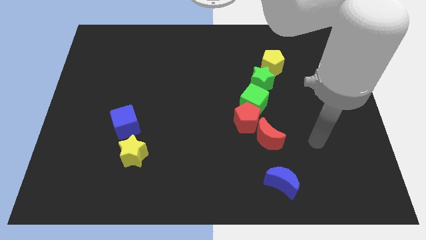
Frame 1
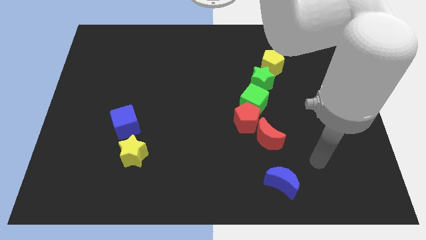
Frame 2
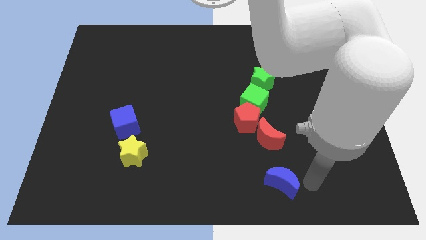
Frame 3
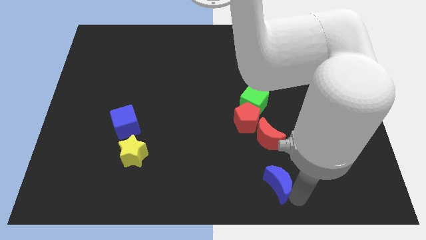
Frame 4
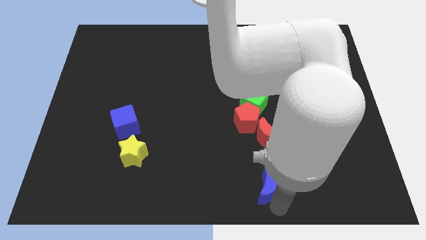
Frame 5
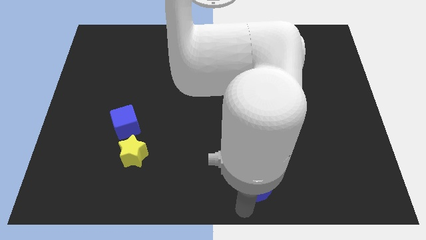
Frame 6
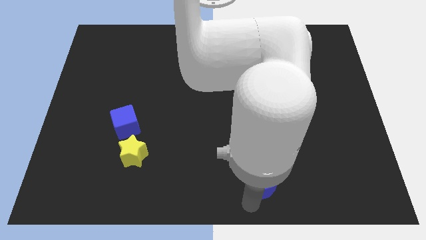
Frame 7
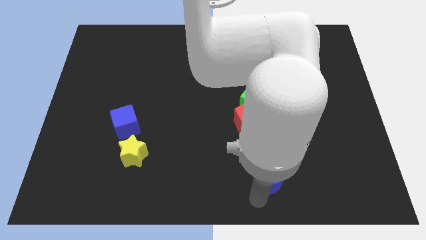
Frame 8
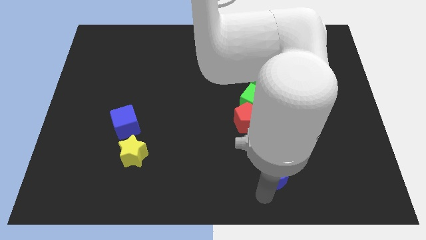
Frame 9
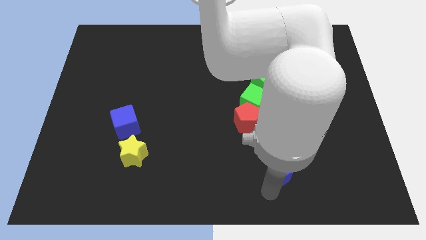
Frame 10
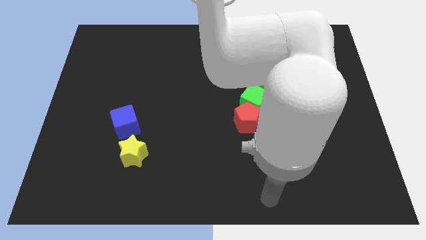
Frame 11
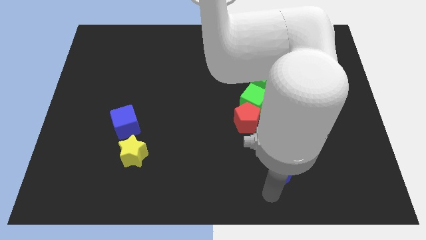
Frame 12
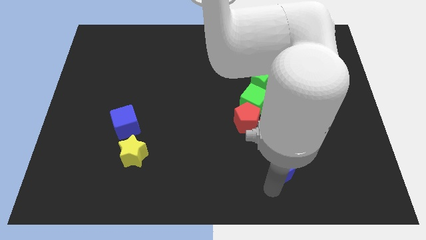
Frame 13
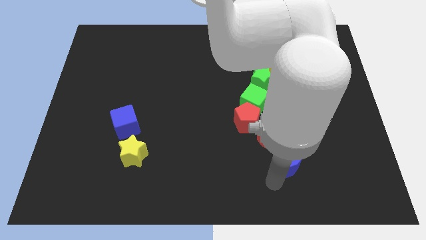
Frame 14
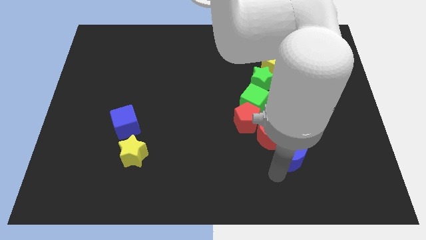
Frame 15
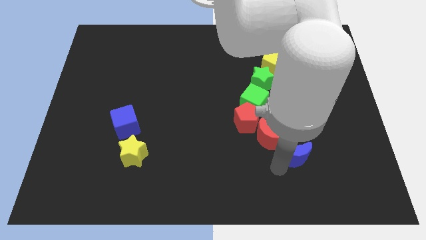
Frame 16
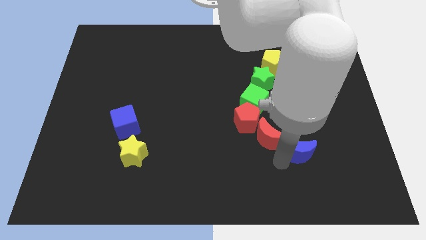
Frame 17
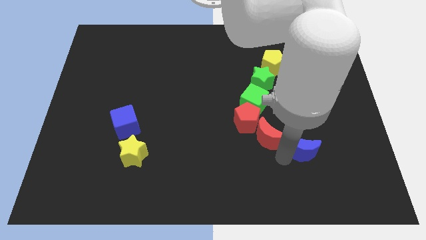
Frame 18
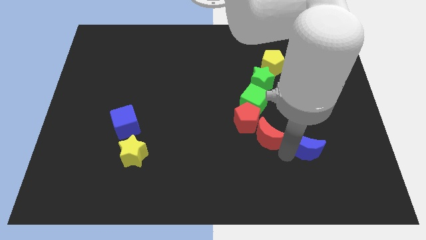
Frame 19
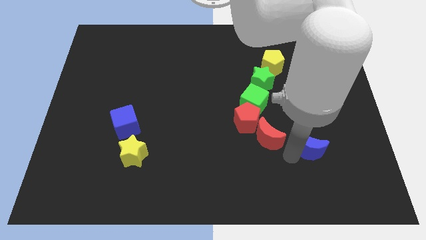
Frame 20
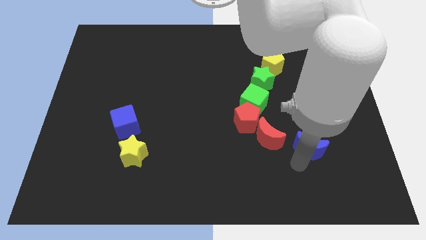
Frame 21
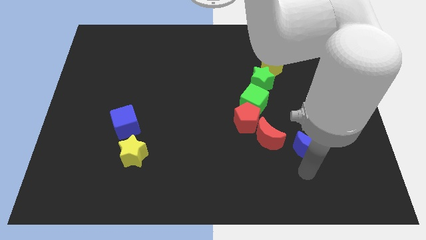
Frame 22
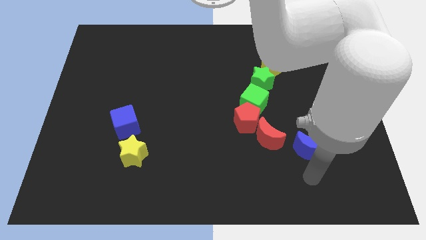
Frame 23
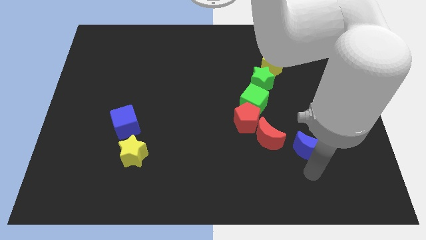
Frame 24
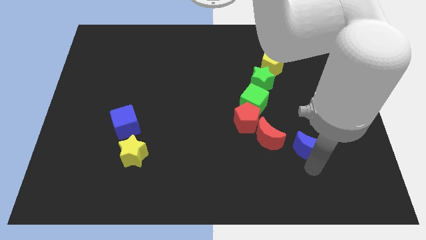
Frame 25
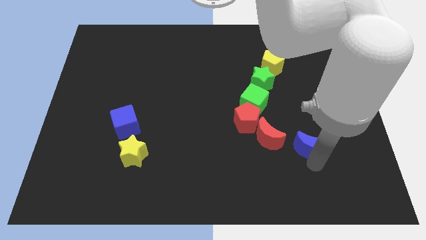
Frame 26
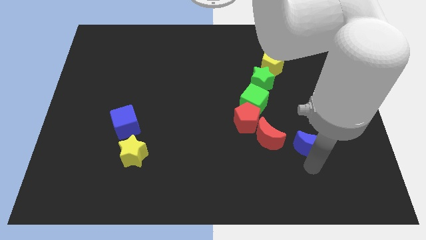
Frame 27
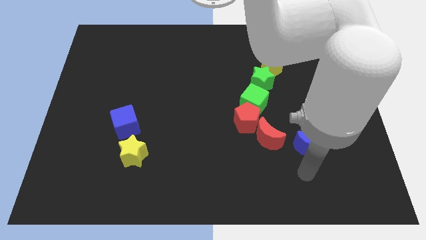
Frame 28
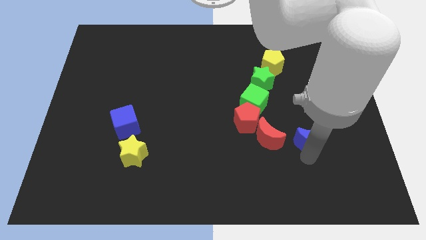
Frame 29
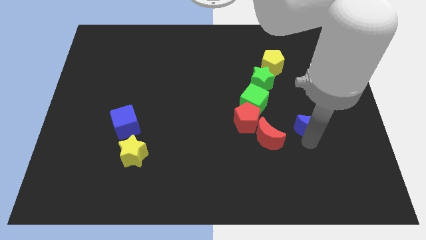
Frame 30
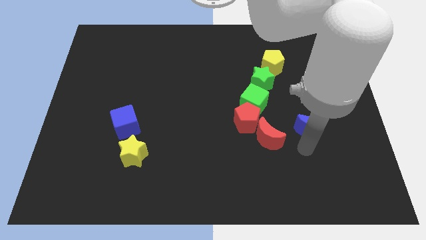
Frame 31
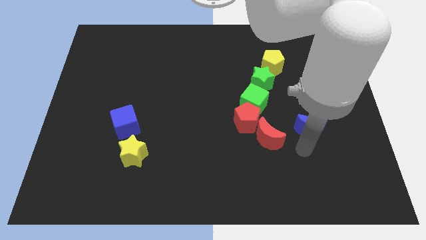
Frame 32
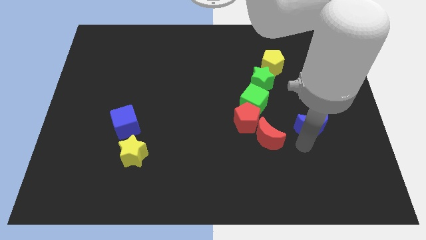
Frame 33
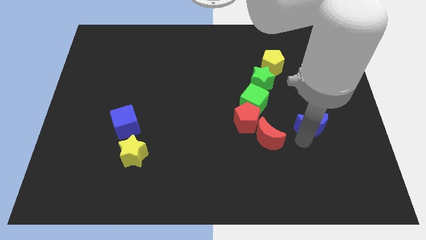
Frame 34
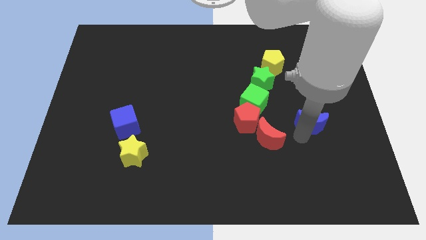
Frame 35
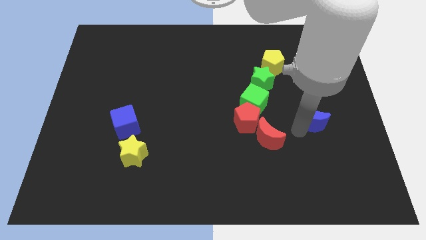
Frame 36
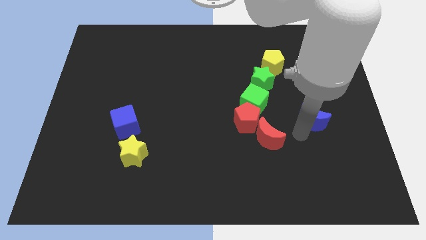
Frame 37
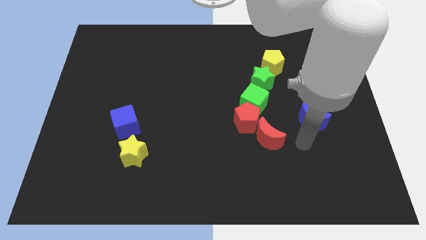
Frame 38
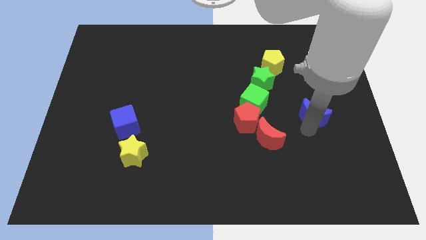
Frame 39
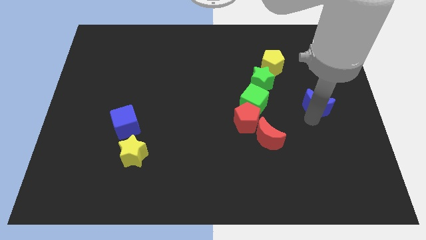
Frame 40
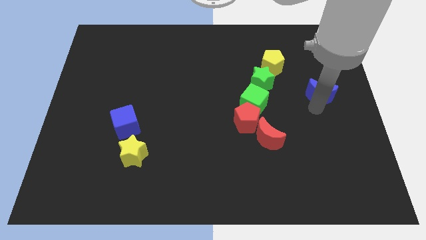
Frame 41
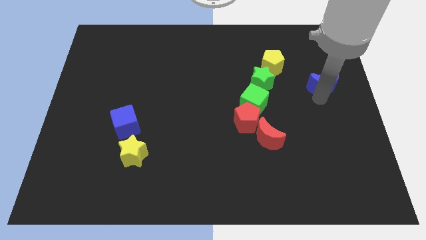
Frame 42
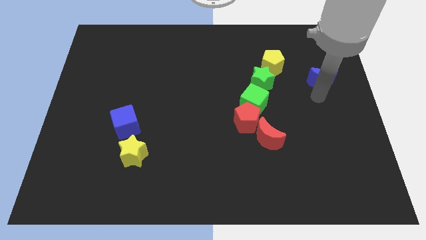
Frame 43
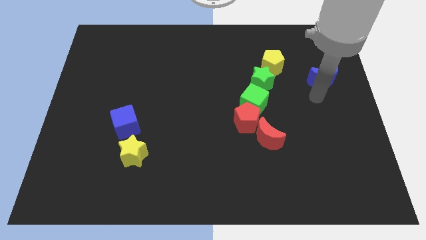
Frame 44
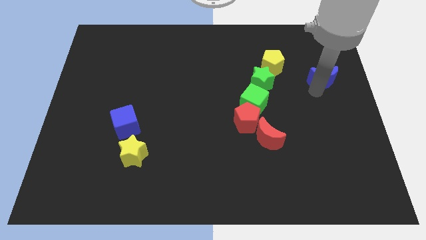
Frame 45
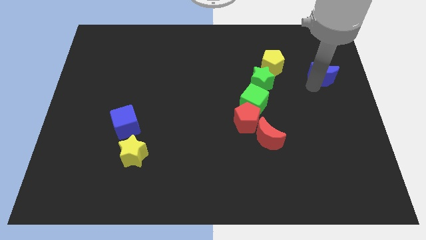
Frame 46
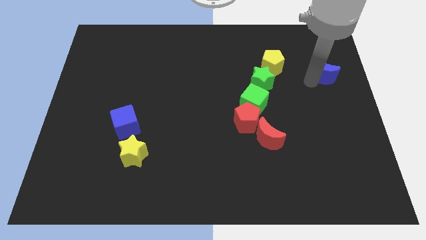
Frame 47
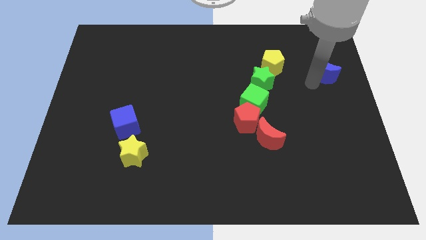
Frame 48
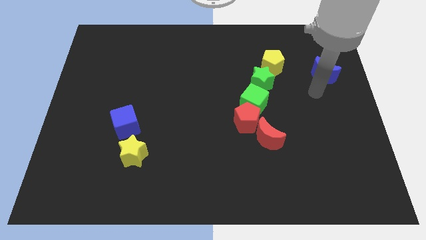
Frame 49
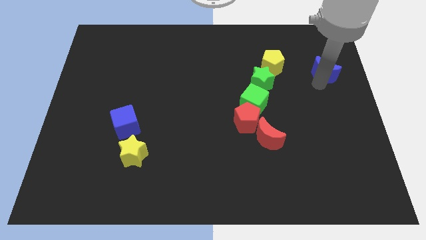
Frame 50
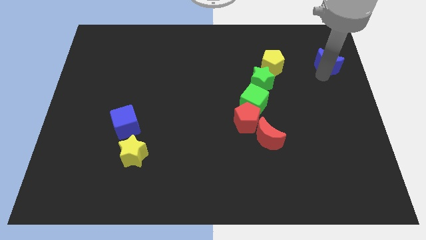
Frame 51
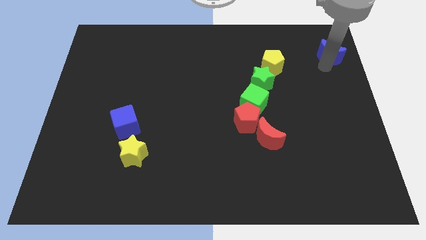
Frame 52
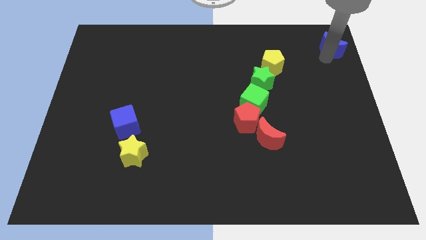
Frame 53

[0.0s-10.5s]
put the blue moon to the top right

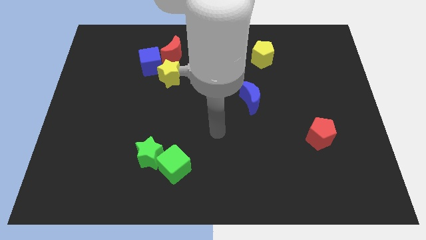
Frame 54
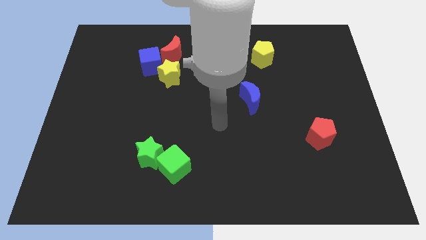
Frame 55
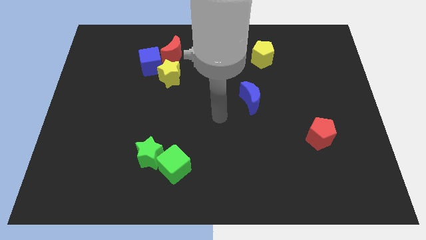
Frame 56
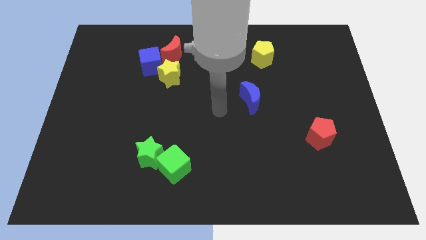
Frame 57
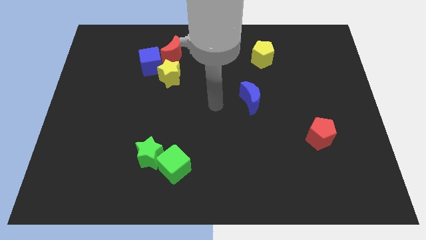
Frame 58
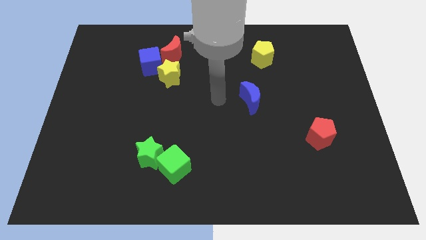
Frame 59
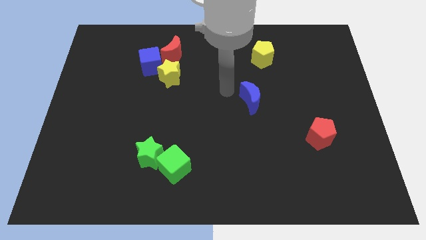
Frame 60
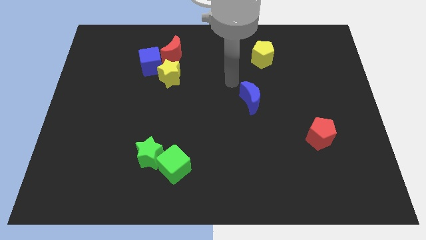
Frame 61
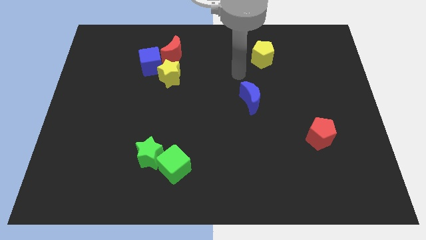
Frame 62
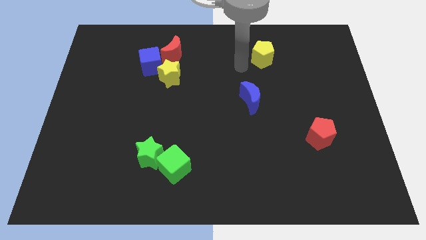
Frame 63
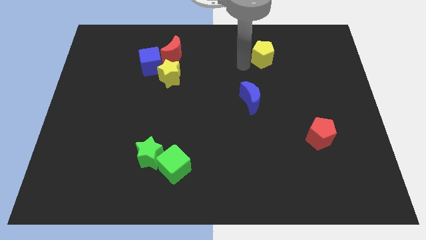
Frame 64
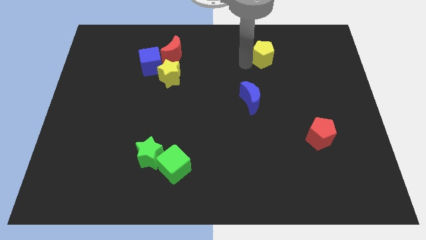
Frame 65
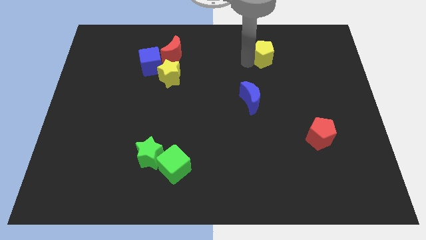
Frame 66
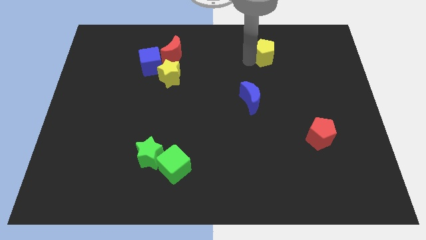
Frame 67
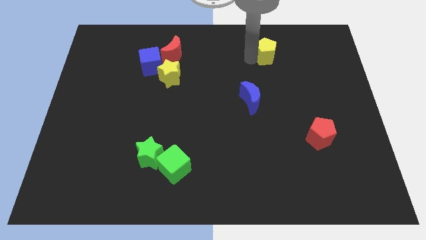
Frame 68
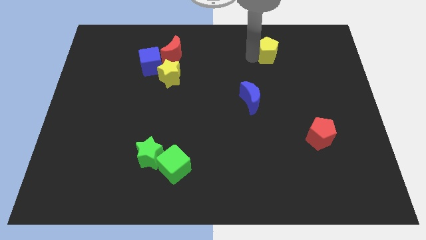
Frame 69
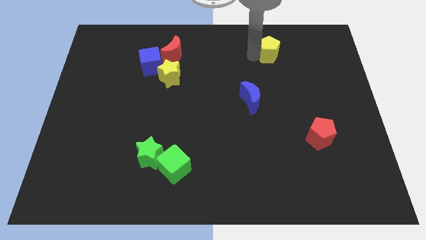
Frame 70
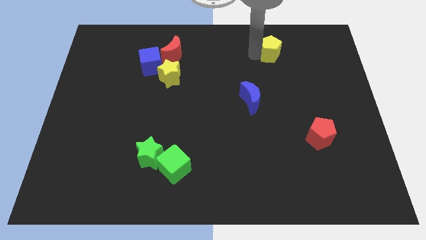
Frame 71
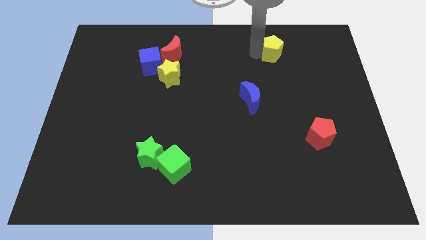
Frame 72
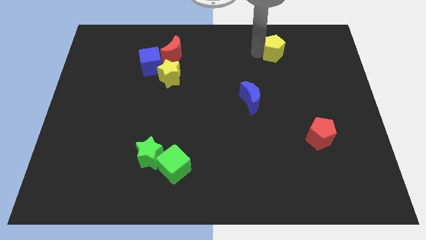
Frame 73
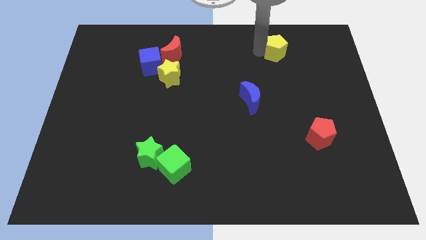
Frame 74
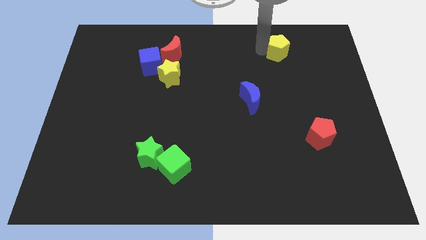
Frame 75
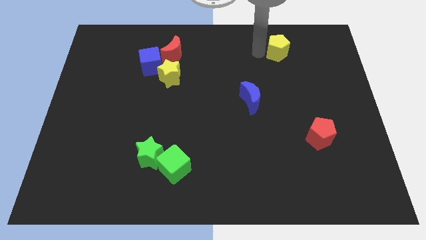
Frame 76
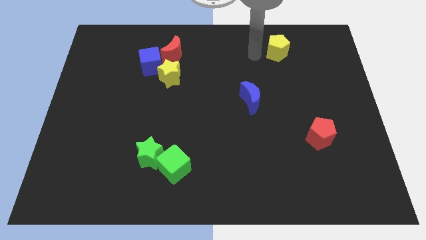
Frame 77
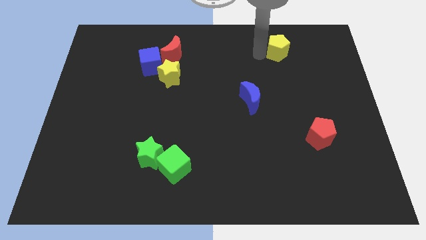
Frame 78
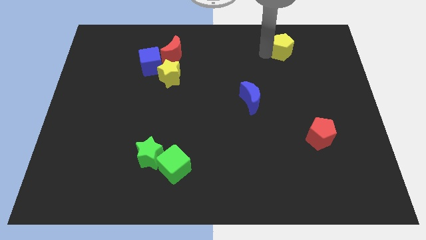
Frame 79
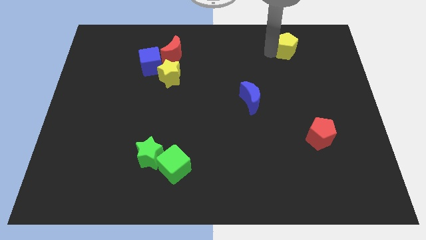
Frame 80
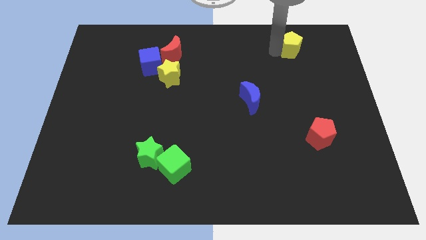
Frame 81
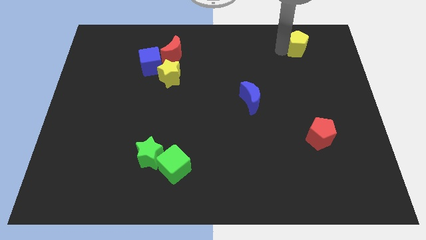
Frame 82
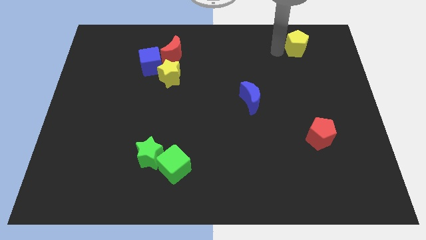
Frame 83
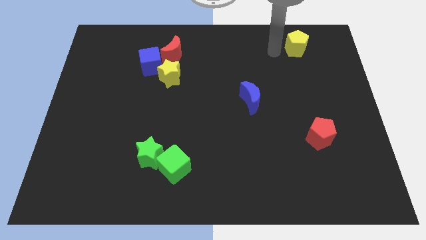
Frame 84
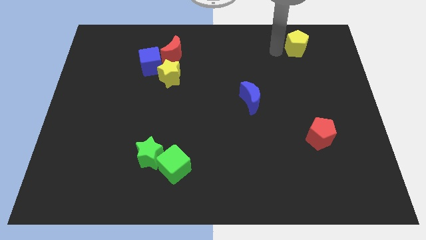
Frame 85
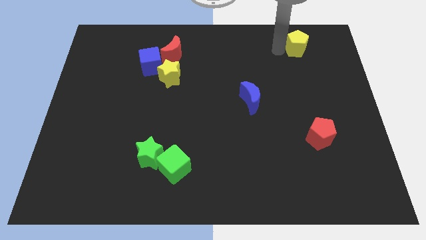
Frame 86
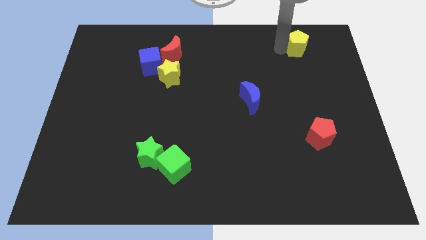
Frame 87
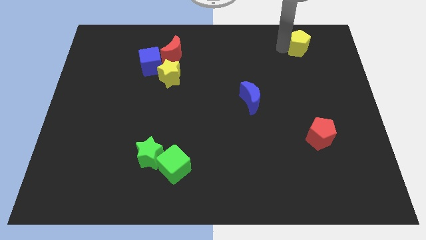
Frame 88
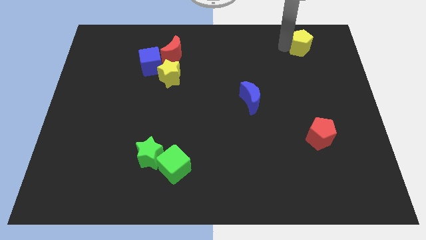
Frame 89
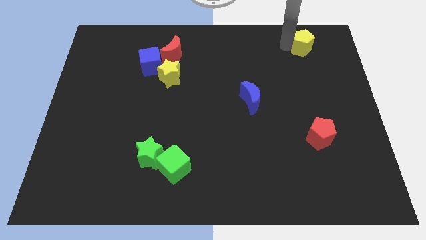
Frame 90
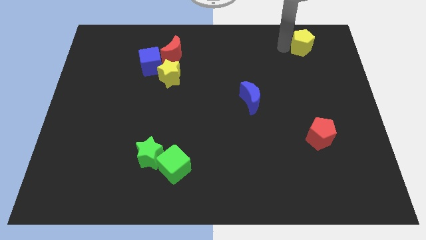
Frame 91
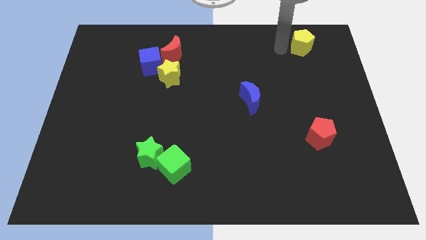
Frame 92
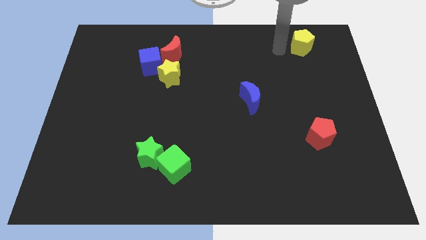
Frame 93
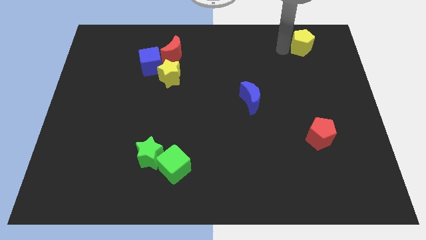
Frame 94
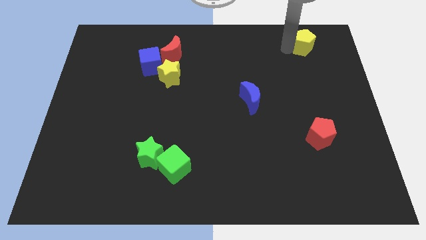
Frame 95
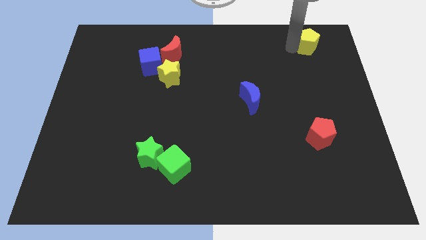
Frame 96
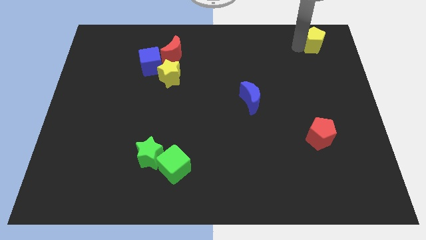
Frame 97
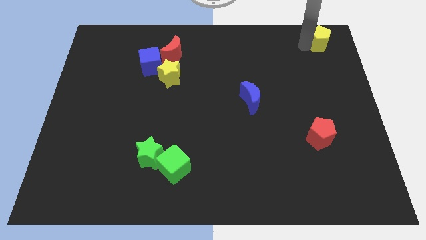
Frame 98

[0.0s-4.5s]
slide the yellow pentagon to the top right of the board
